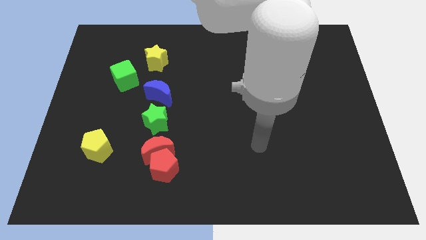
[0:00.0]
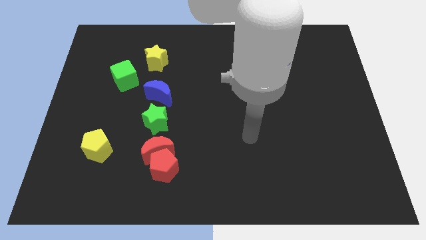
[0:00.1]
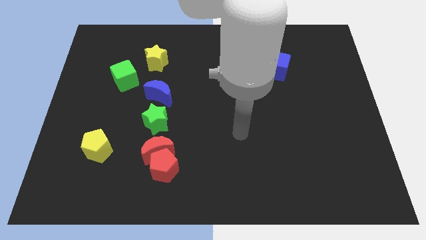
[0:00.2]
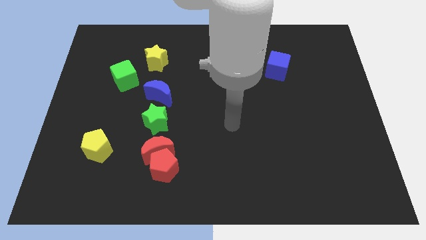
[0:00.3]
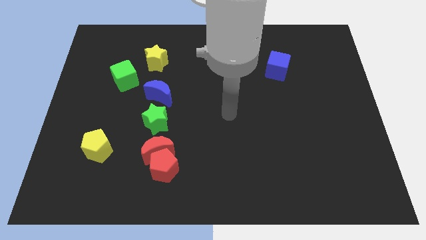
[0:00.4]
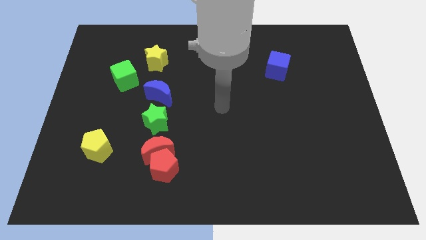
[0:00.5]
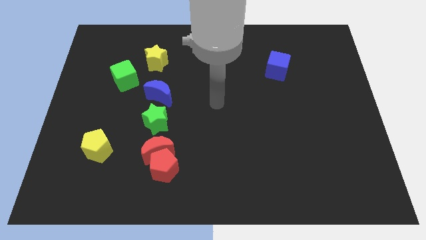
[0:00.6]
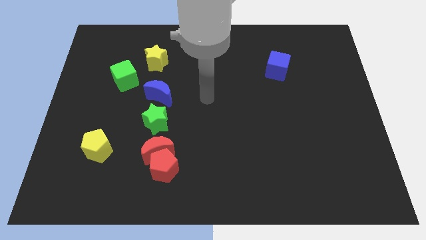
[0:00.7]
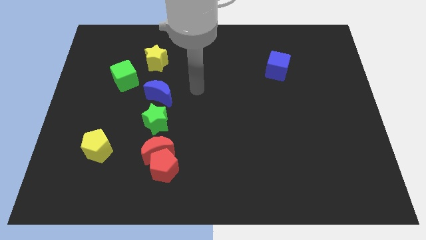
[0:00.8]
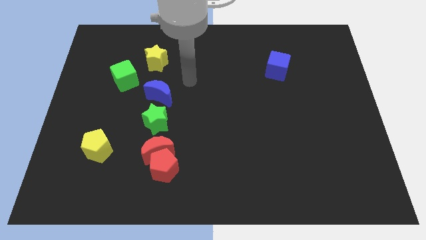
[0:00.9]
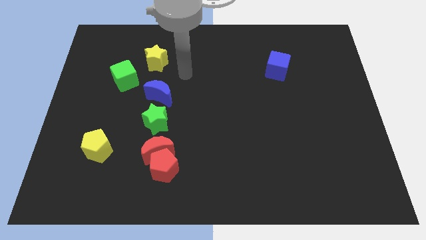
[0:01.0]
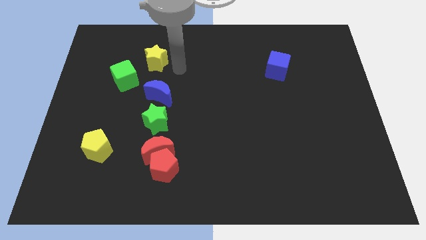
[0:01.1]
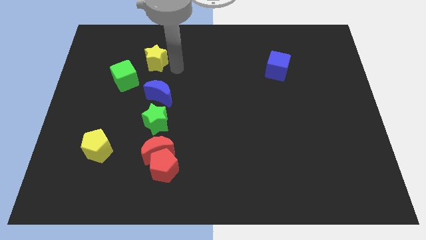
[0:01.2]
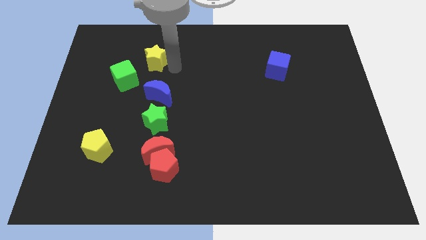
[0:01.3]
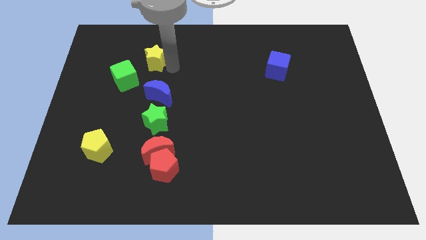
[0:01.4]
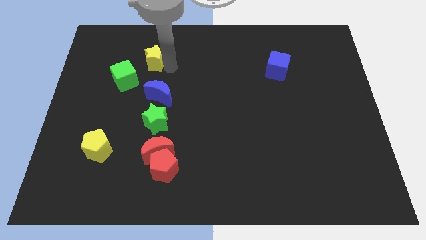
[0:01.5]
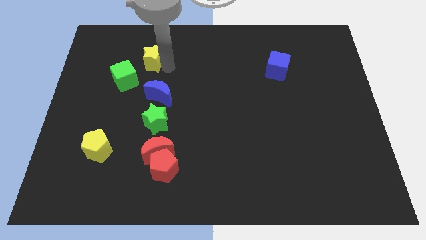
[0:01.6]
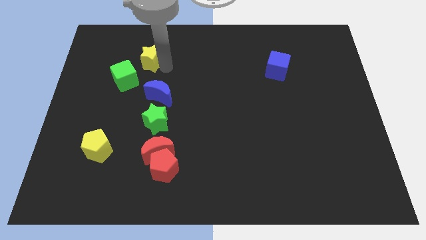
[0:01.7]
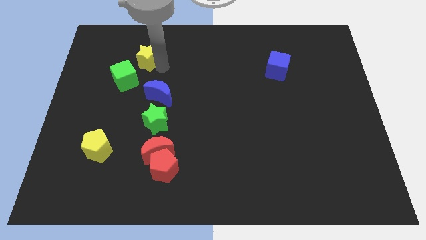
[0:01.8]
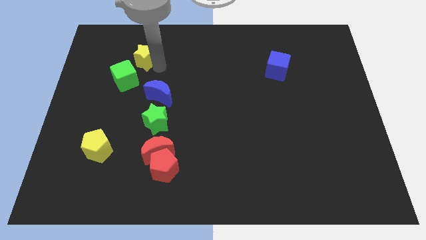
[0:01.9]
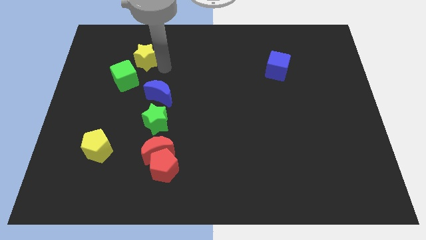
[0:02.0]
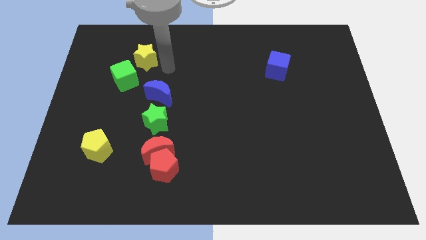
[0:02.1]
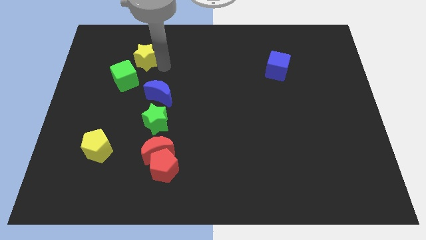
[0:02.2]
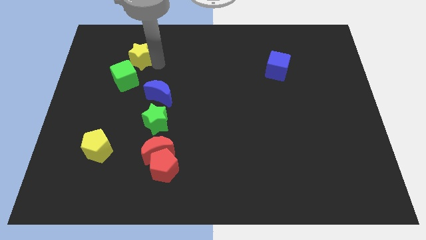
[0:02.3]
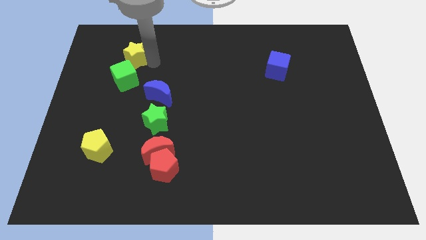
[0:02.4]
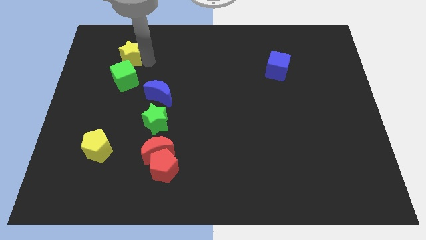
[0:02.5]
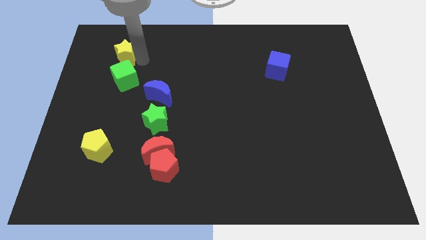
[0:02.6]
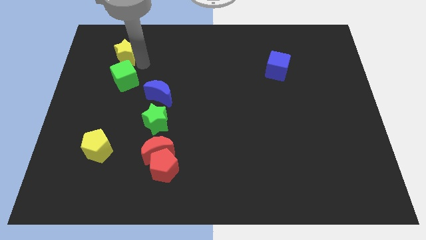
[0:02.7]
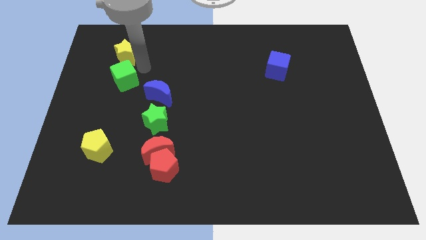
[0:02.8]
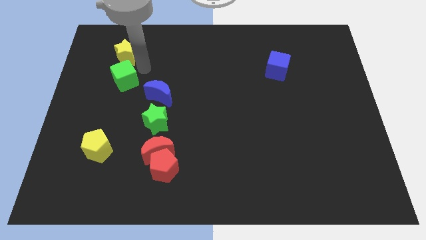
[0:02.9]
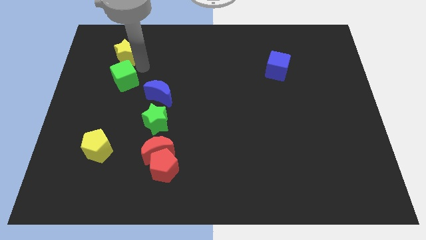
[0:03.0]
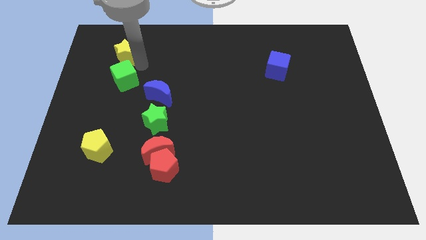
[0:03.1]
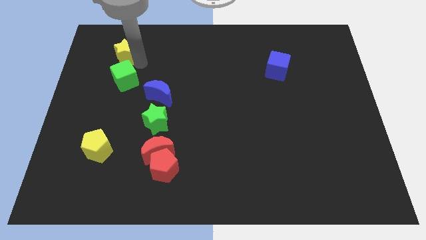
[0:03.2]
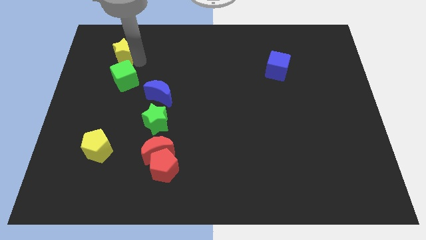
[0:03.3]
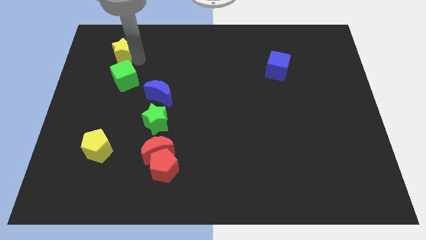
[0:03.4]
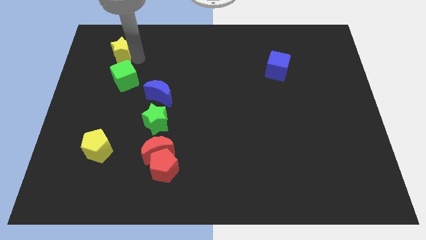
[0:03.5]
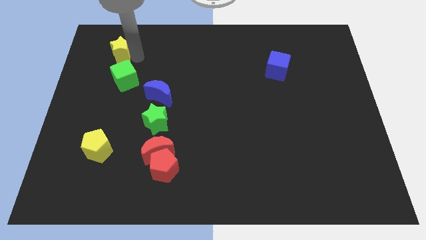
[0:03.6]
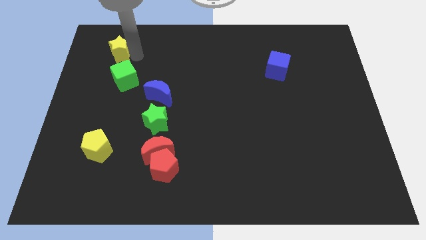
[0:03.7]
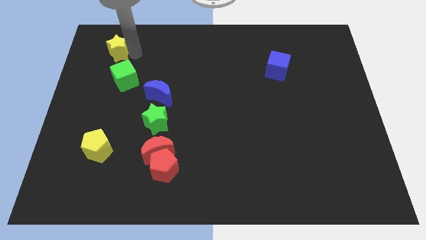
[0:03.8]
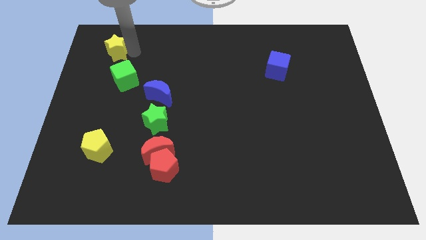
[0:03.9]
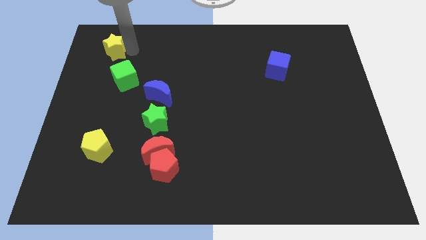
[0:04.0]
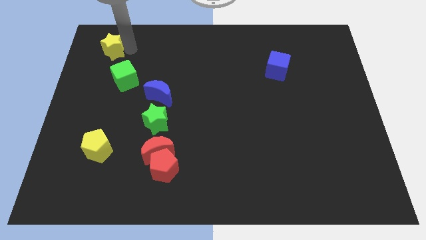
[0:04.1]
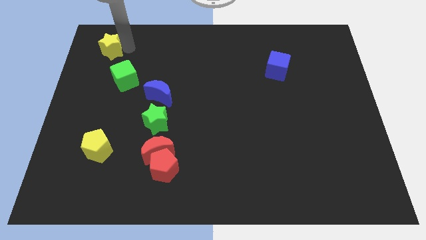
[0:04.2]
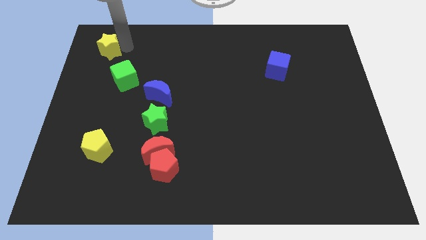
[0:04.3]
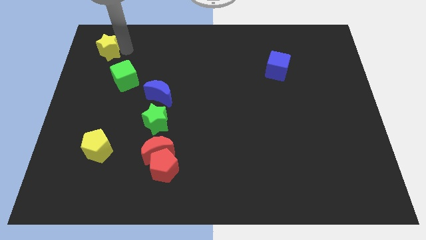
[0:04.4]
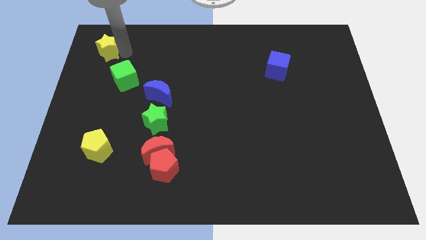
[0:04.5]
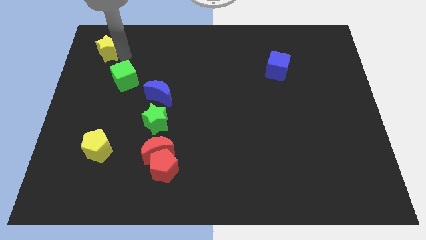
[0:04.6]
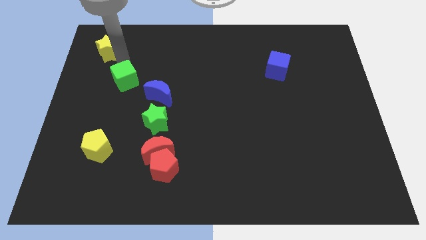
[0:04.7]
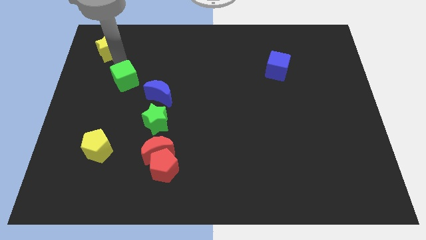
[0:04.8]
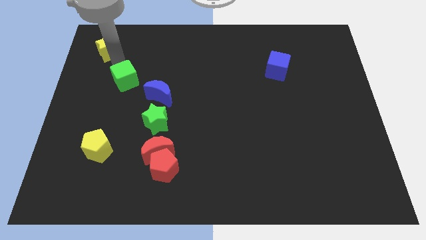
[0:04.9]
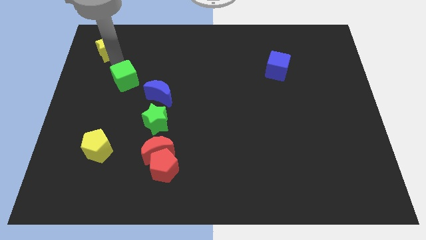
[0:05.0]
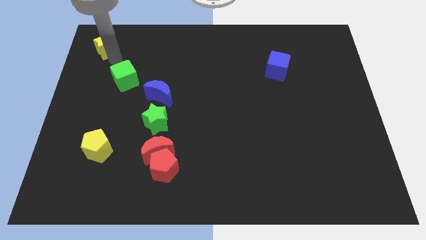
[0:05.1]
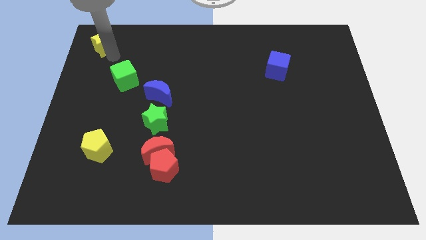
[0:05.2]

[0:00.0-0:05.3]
push the yellow star to the top left

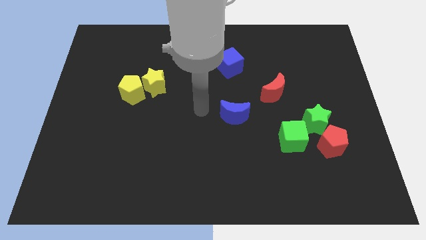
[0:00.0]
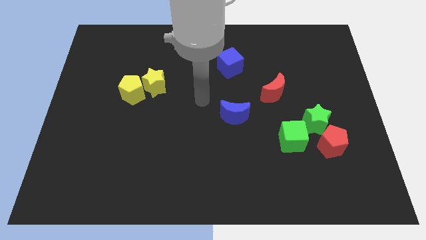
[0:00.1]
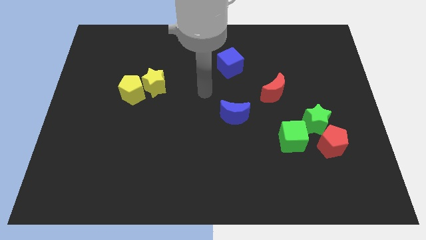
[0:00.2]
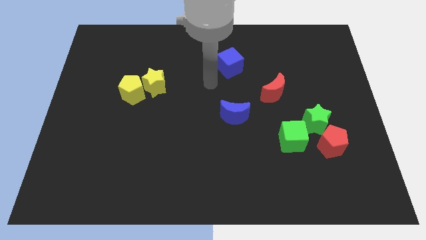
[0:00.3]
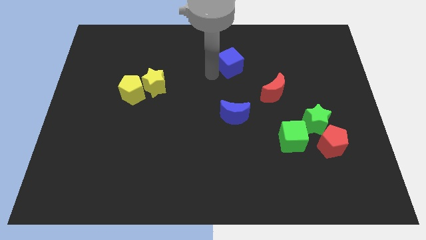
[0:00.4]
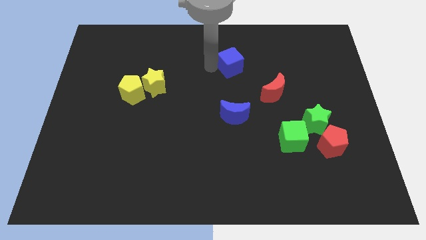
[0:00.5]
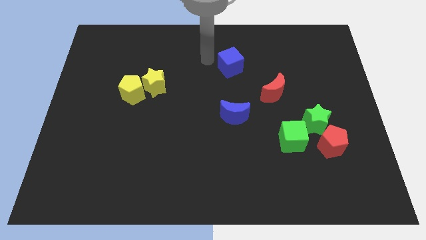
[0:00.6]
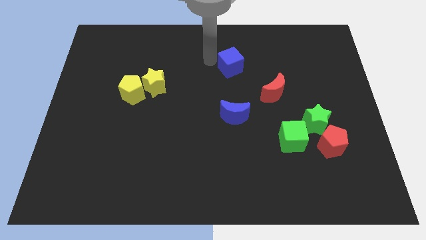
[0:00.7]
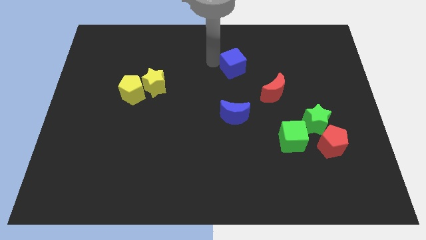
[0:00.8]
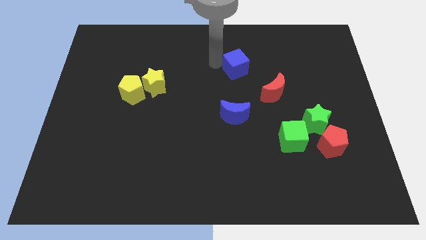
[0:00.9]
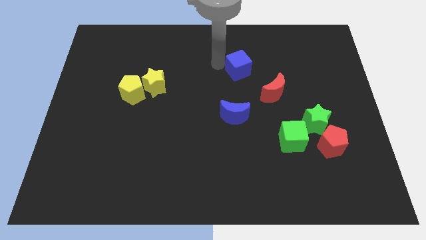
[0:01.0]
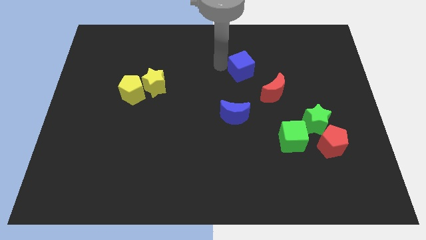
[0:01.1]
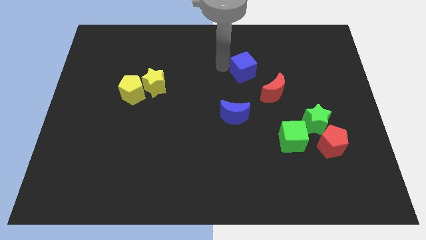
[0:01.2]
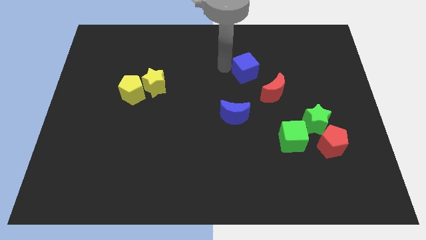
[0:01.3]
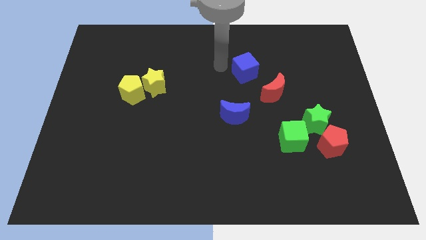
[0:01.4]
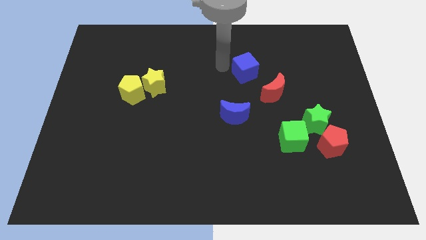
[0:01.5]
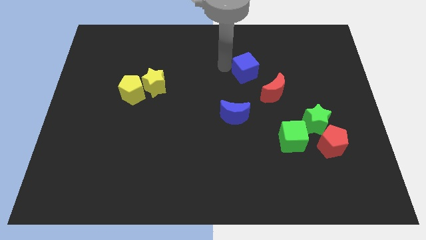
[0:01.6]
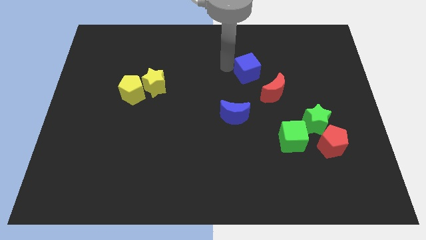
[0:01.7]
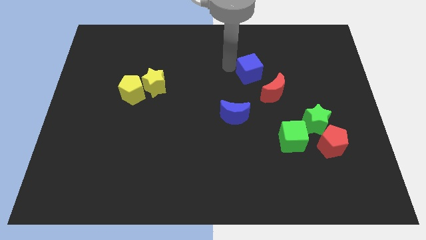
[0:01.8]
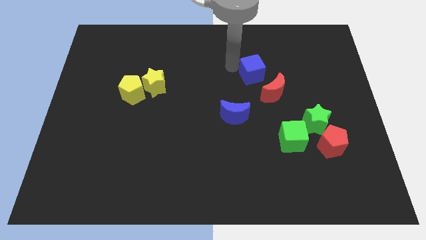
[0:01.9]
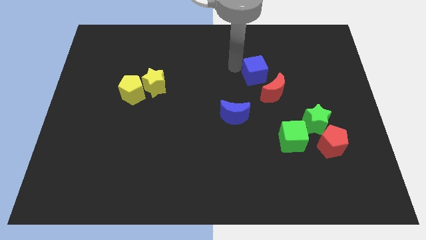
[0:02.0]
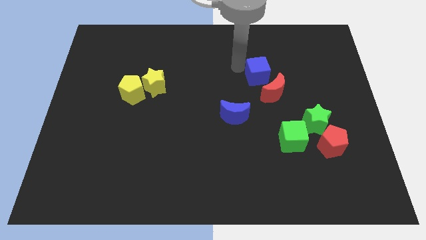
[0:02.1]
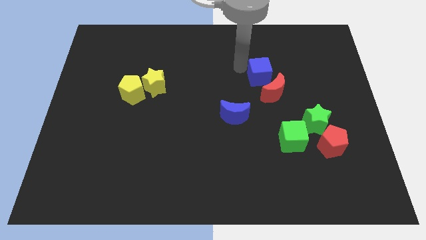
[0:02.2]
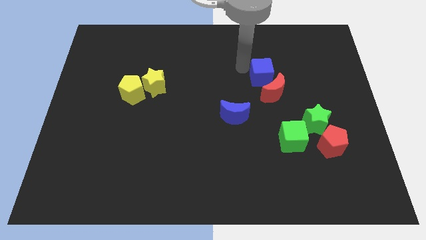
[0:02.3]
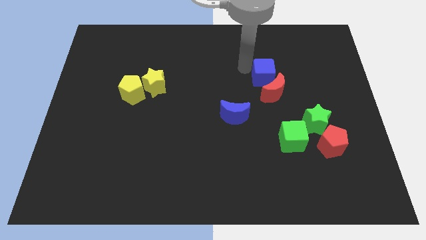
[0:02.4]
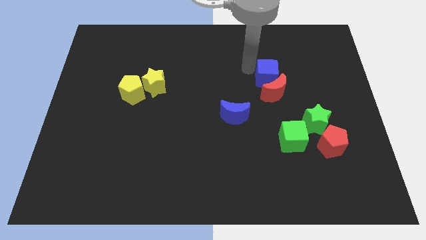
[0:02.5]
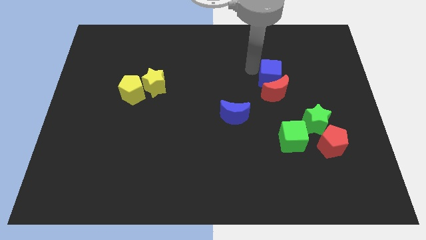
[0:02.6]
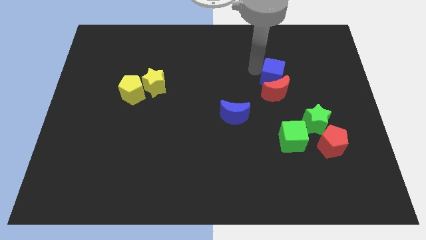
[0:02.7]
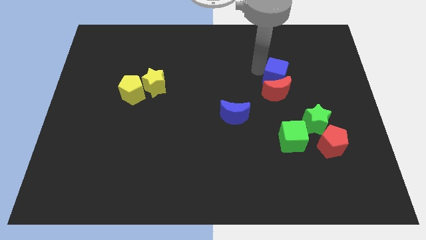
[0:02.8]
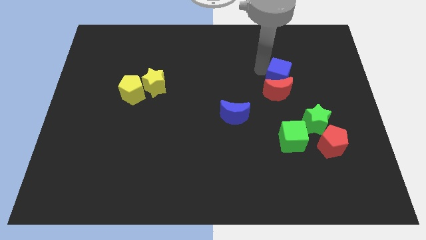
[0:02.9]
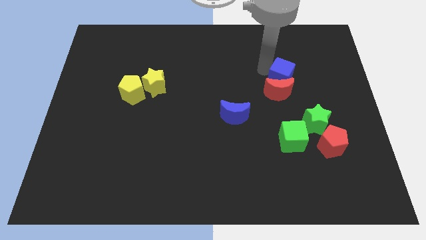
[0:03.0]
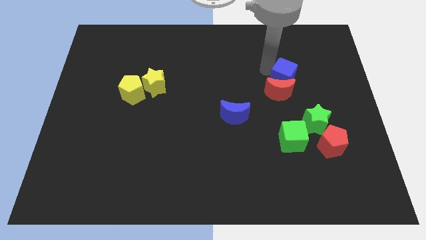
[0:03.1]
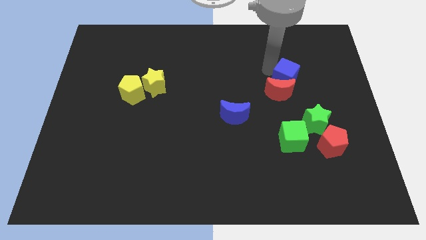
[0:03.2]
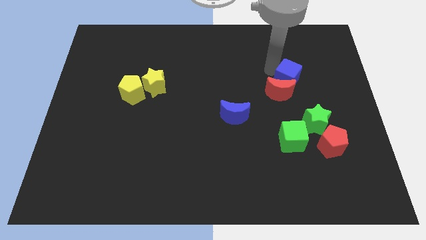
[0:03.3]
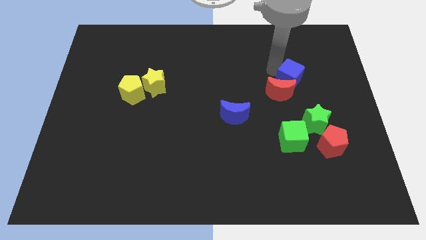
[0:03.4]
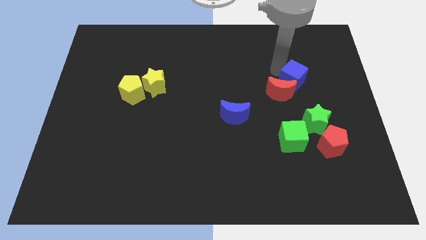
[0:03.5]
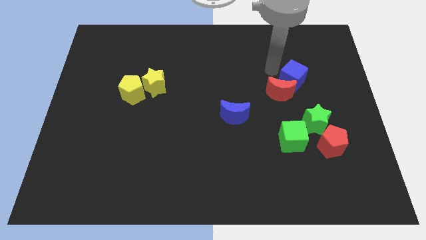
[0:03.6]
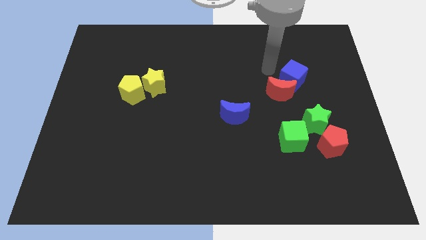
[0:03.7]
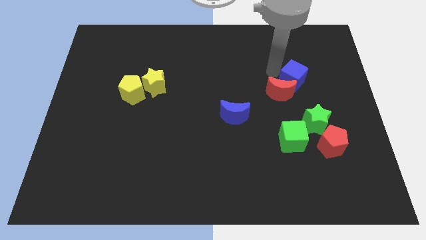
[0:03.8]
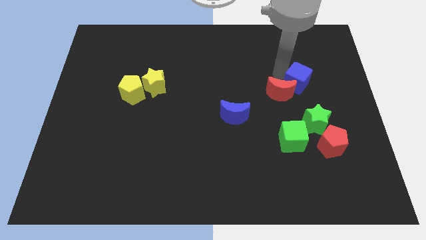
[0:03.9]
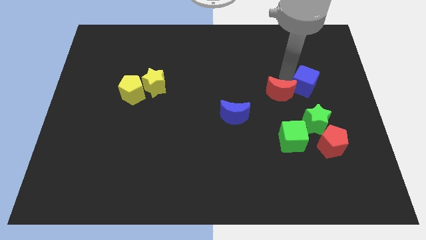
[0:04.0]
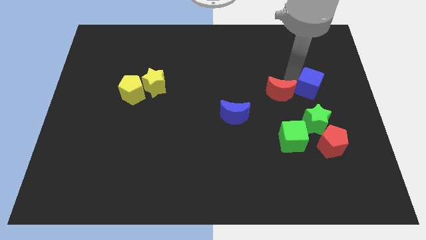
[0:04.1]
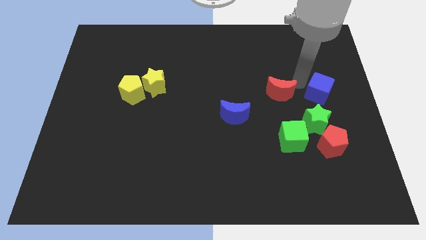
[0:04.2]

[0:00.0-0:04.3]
put the blue cube to the center right
